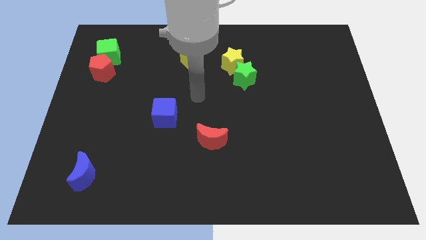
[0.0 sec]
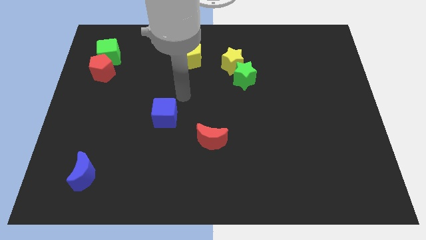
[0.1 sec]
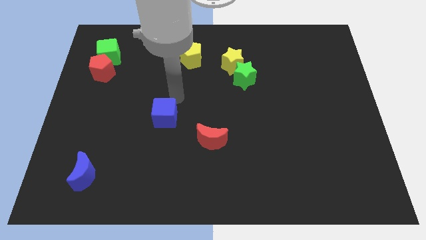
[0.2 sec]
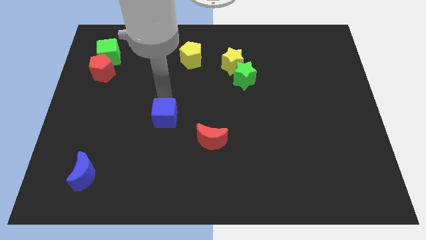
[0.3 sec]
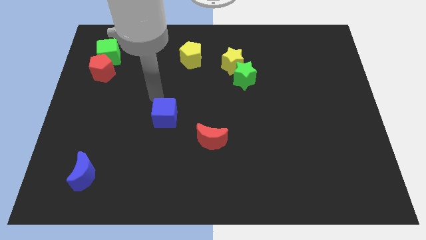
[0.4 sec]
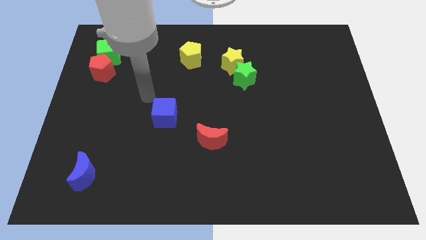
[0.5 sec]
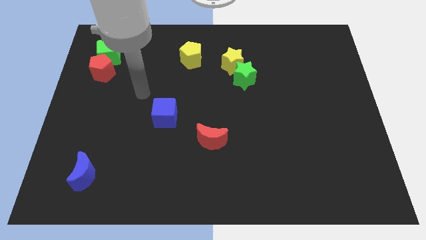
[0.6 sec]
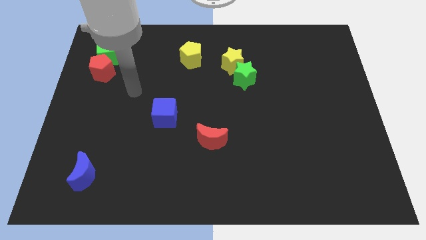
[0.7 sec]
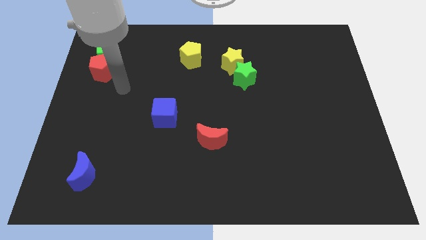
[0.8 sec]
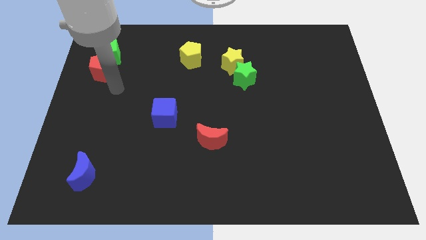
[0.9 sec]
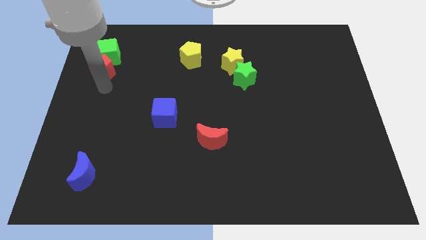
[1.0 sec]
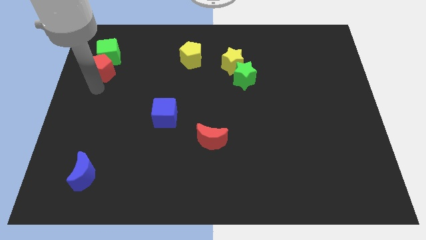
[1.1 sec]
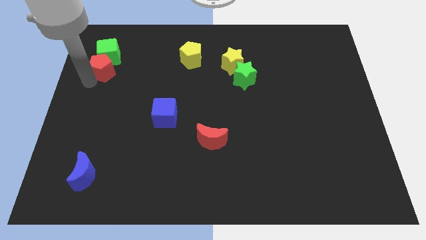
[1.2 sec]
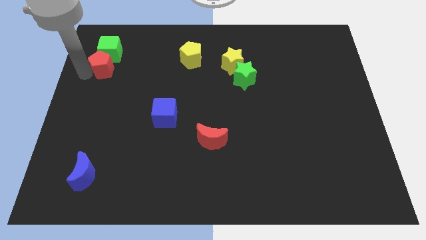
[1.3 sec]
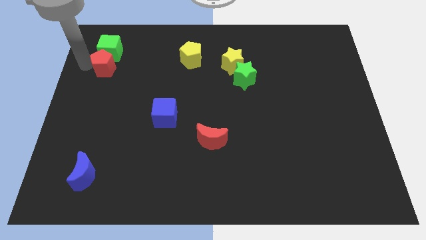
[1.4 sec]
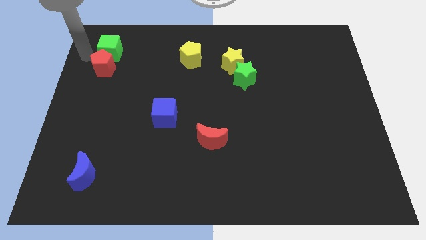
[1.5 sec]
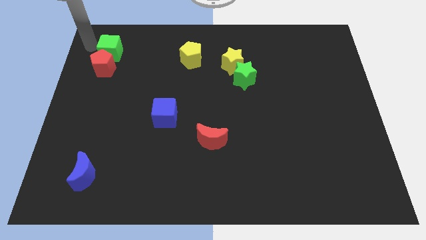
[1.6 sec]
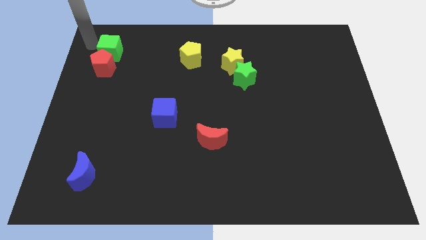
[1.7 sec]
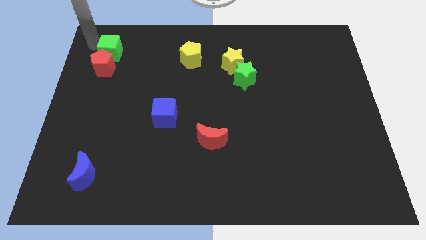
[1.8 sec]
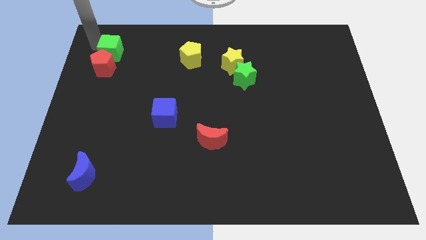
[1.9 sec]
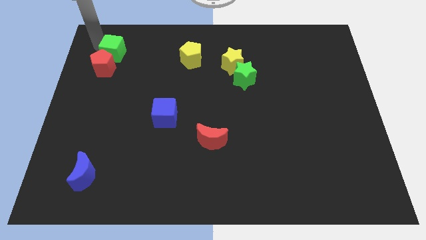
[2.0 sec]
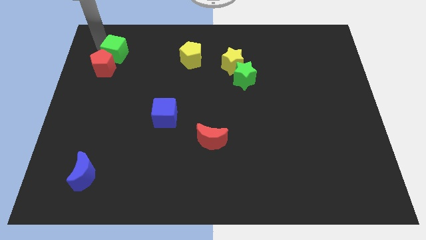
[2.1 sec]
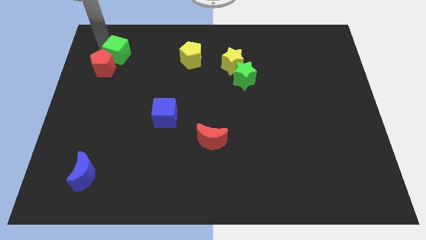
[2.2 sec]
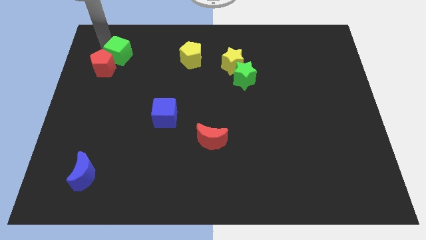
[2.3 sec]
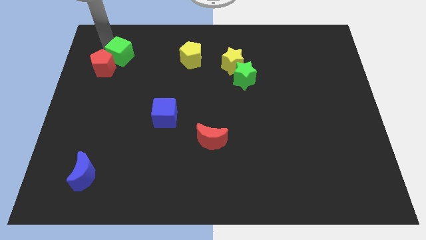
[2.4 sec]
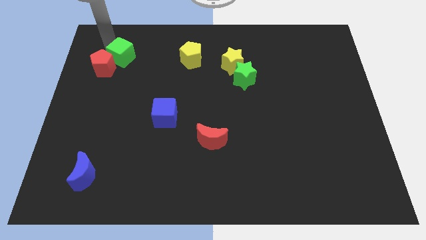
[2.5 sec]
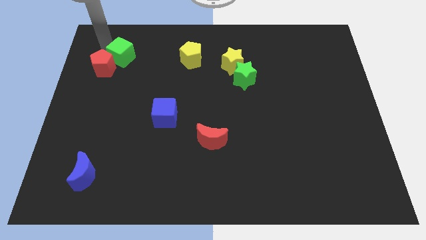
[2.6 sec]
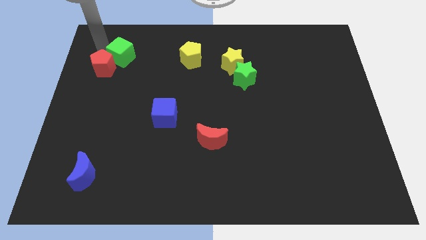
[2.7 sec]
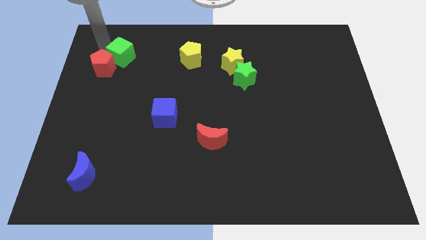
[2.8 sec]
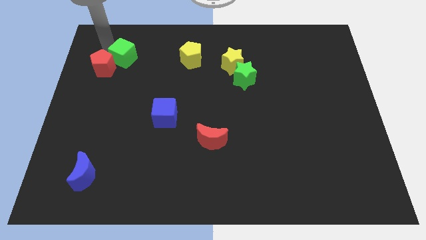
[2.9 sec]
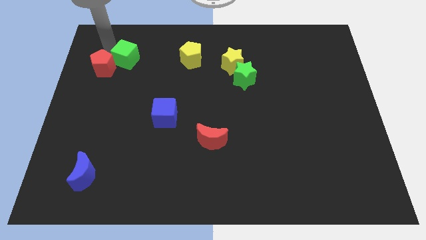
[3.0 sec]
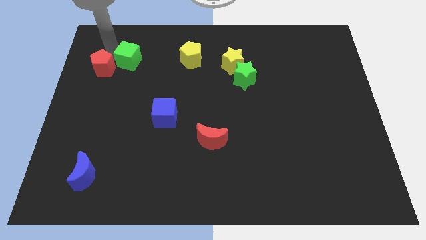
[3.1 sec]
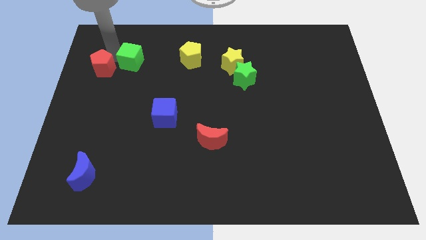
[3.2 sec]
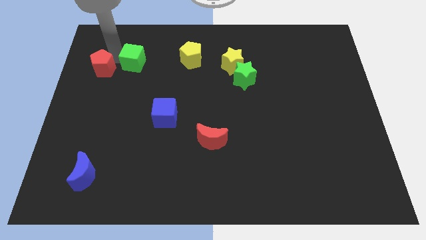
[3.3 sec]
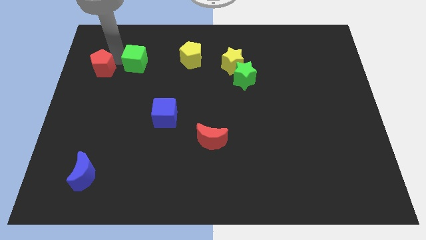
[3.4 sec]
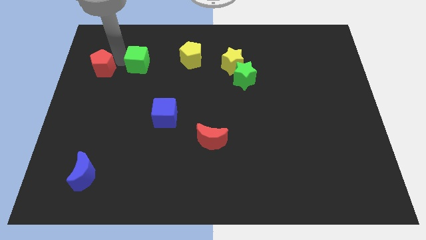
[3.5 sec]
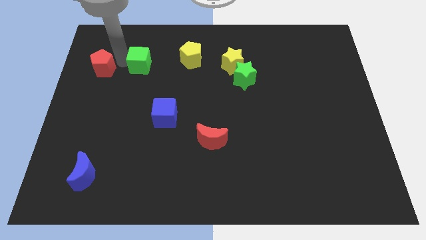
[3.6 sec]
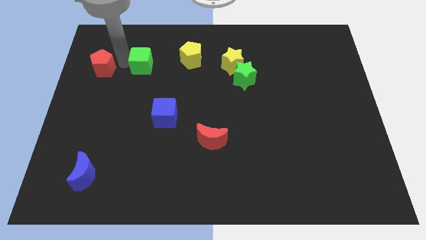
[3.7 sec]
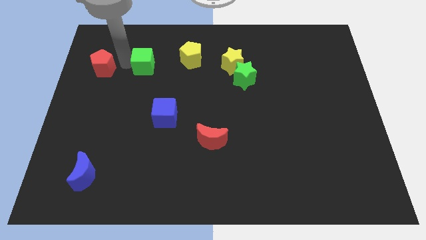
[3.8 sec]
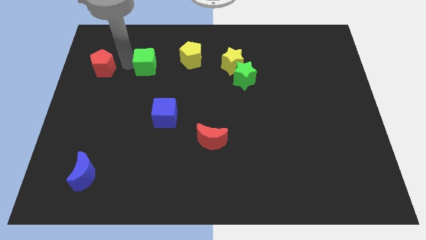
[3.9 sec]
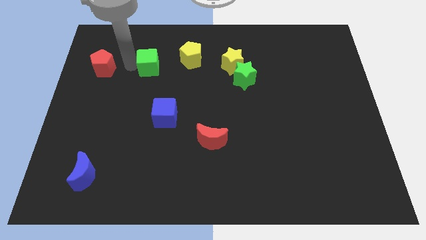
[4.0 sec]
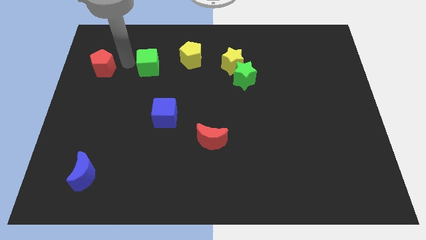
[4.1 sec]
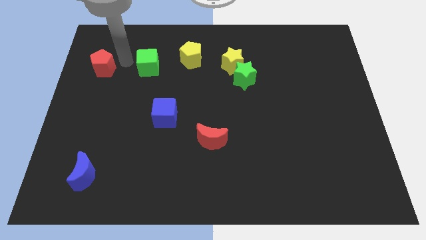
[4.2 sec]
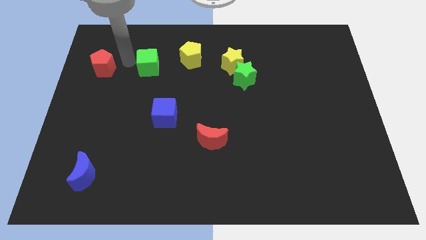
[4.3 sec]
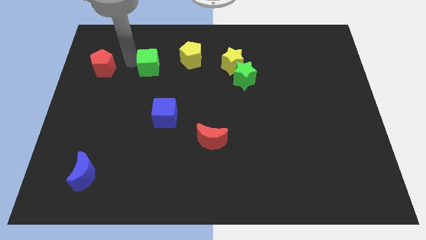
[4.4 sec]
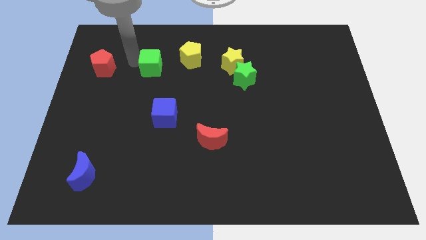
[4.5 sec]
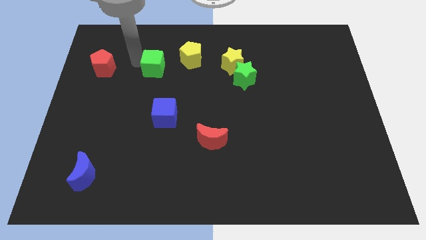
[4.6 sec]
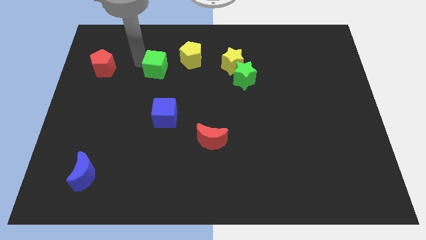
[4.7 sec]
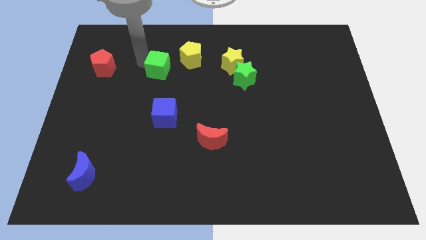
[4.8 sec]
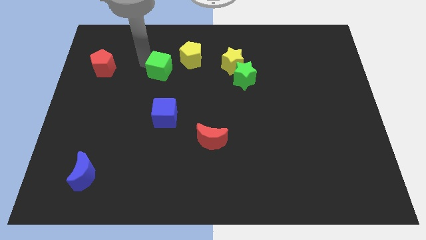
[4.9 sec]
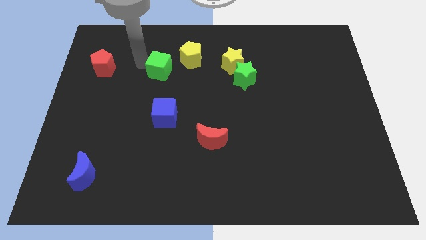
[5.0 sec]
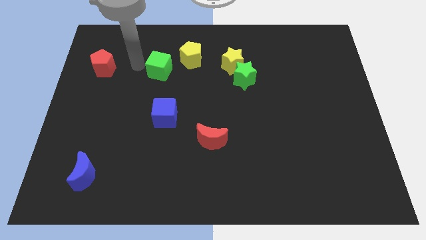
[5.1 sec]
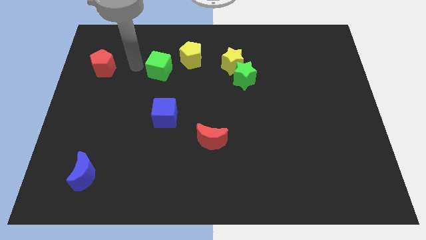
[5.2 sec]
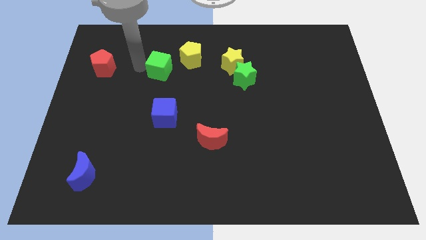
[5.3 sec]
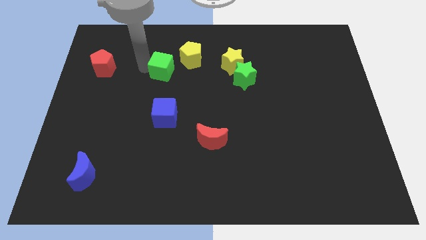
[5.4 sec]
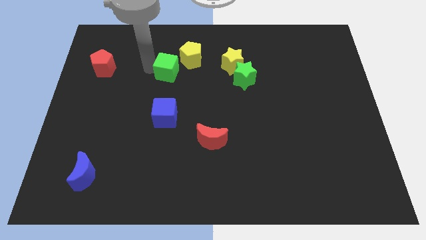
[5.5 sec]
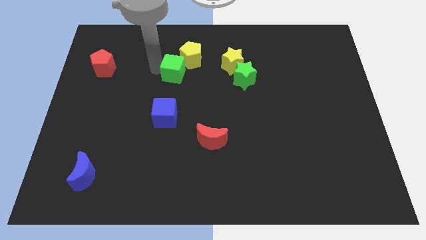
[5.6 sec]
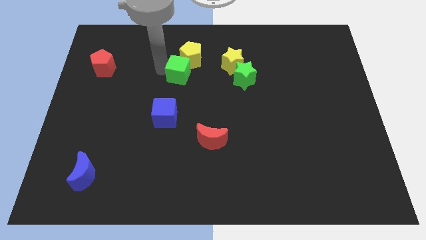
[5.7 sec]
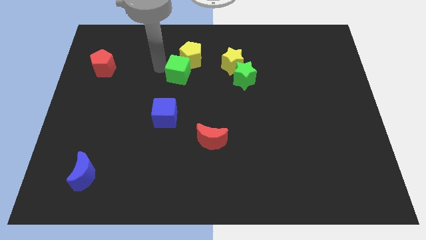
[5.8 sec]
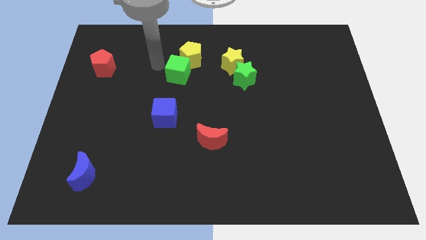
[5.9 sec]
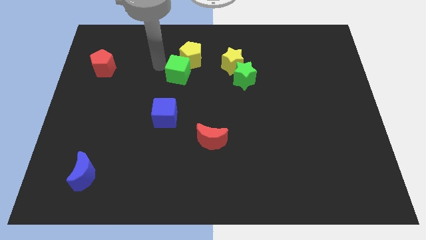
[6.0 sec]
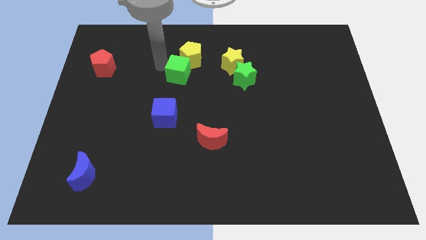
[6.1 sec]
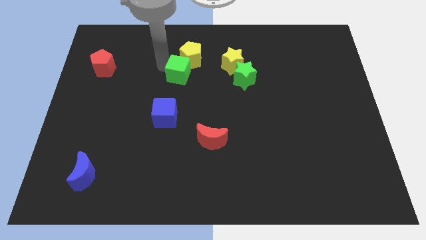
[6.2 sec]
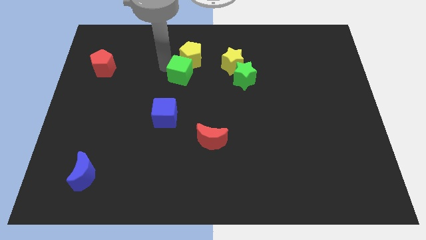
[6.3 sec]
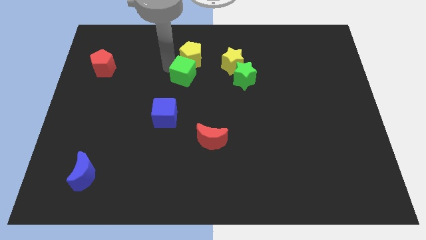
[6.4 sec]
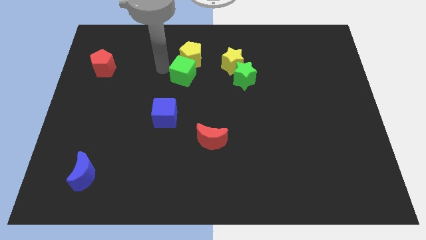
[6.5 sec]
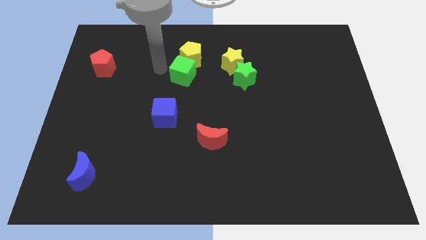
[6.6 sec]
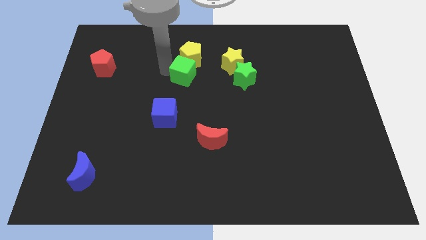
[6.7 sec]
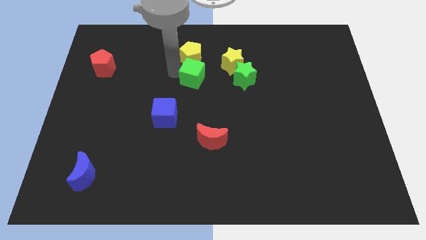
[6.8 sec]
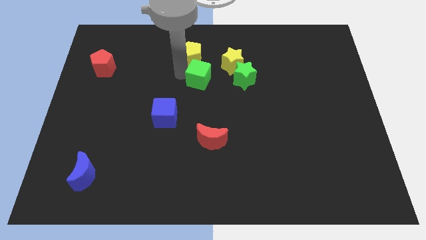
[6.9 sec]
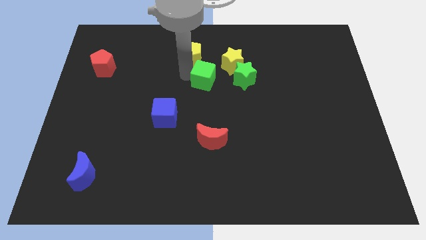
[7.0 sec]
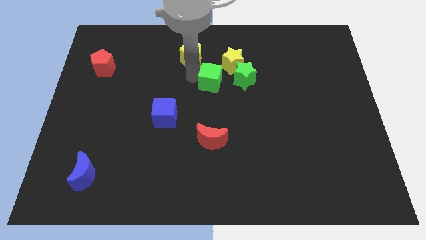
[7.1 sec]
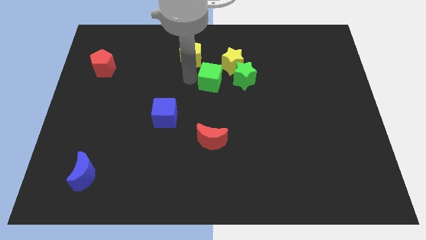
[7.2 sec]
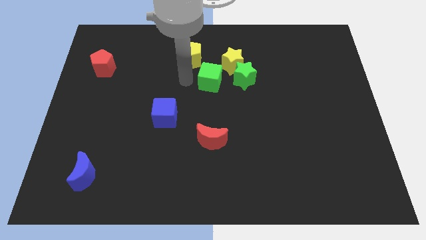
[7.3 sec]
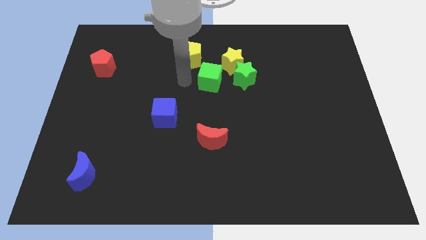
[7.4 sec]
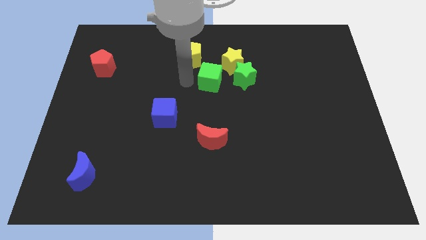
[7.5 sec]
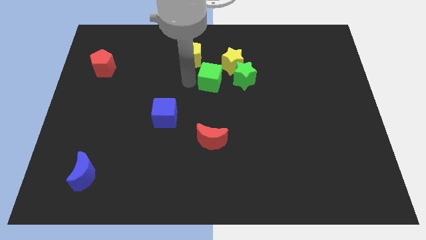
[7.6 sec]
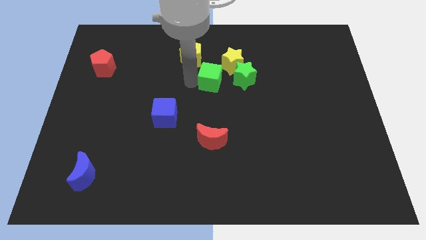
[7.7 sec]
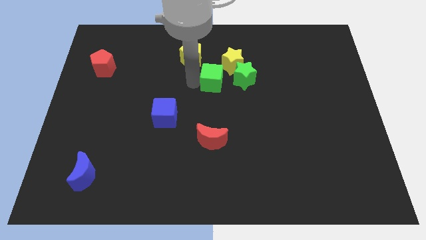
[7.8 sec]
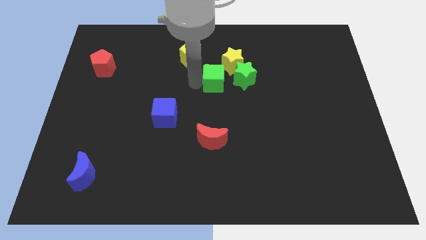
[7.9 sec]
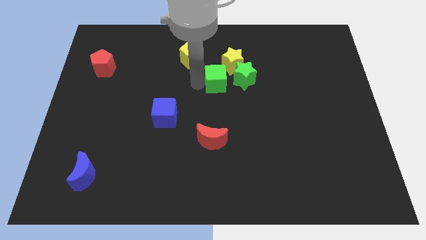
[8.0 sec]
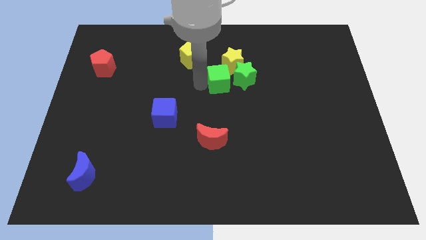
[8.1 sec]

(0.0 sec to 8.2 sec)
push the green cube towards the green star
